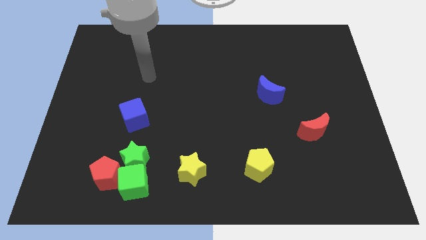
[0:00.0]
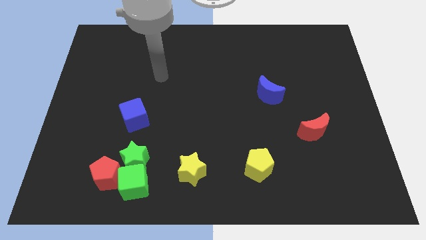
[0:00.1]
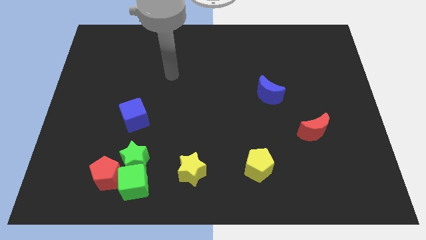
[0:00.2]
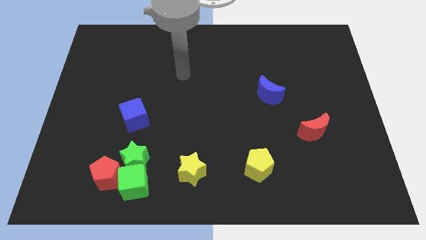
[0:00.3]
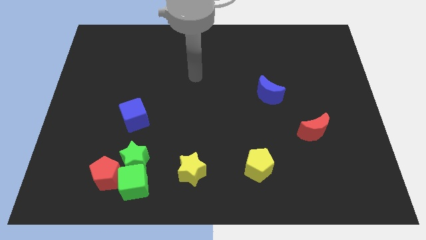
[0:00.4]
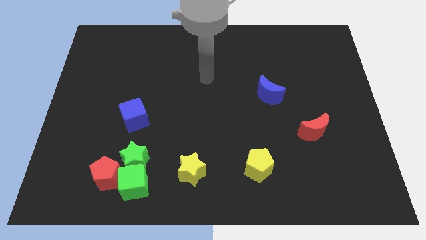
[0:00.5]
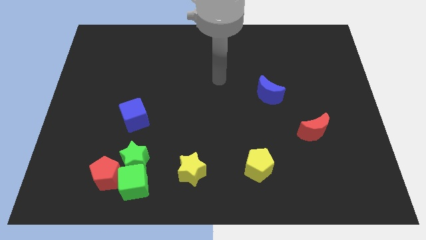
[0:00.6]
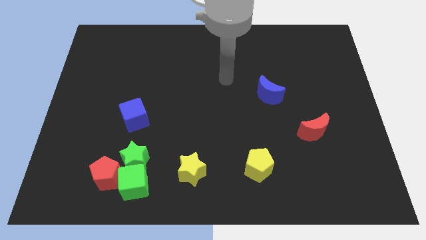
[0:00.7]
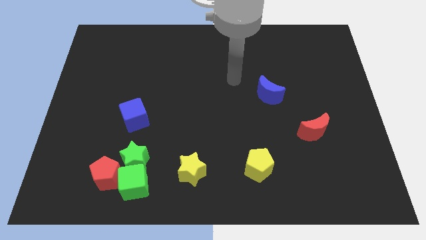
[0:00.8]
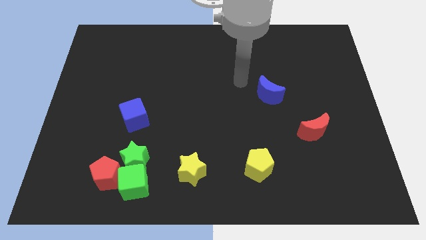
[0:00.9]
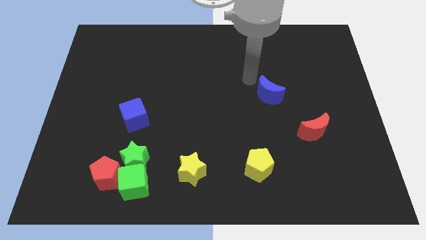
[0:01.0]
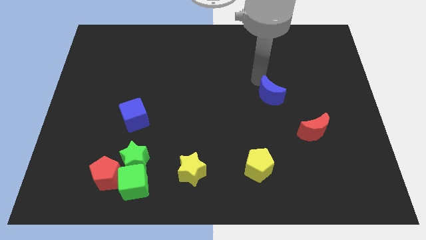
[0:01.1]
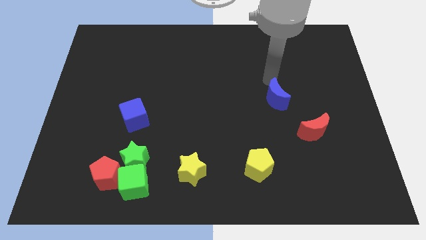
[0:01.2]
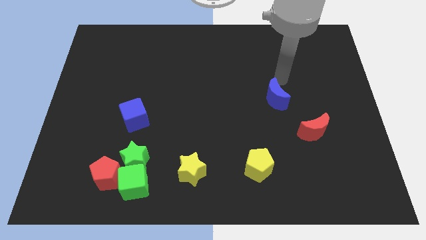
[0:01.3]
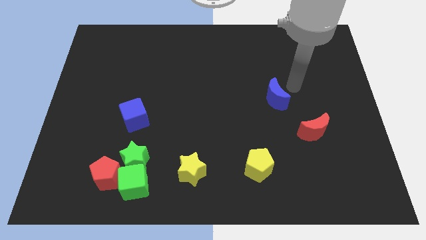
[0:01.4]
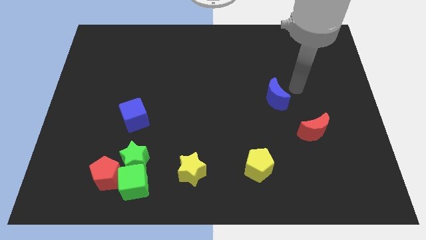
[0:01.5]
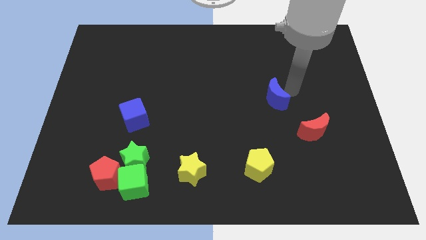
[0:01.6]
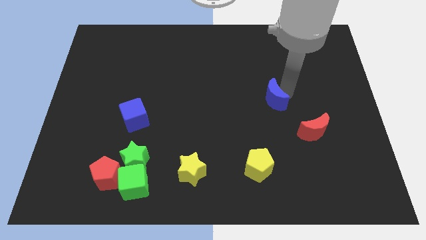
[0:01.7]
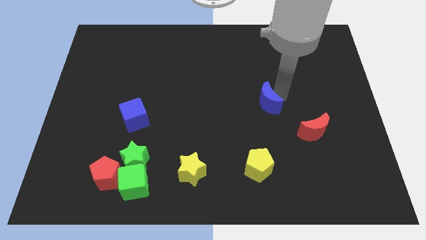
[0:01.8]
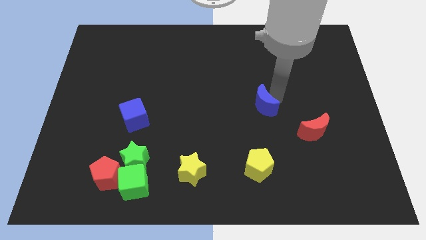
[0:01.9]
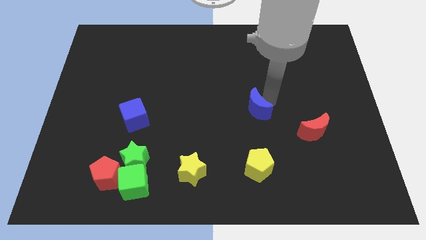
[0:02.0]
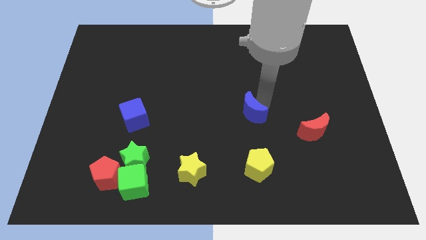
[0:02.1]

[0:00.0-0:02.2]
move the blue moon somewhat downwards and then to the left

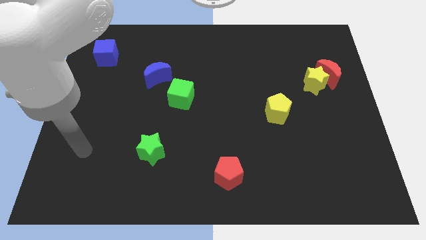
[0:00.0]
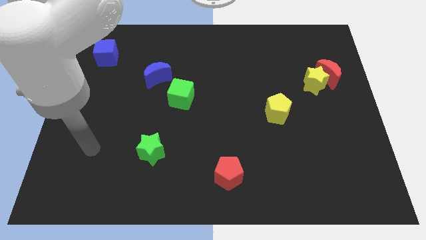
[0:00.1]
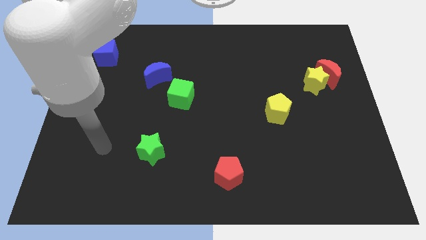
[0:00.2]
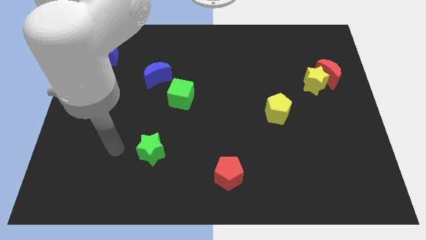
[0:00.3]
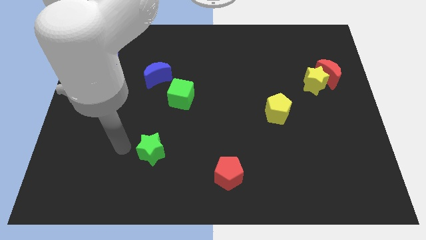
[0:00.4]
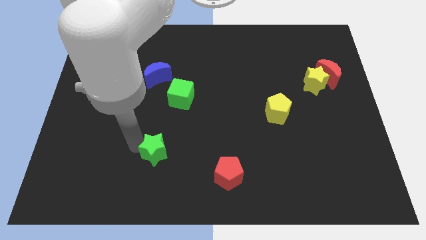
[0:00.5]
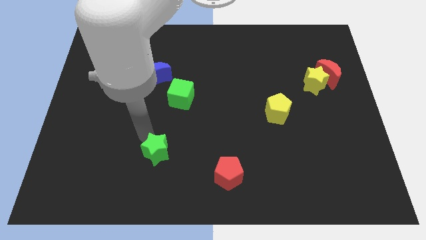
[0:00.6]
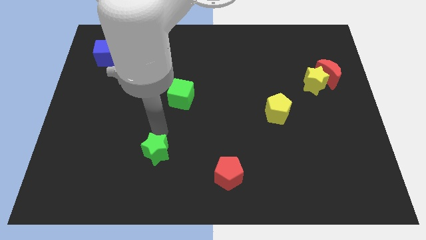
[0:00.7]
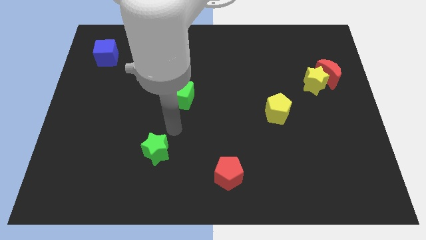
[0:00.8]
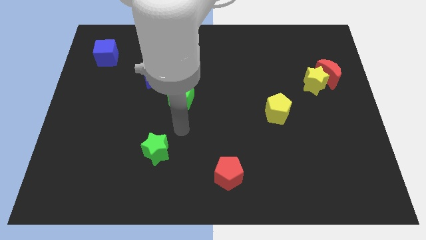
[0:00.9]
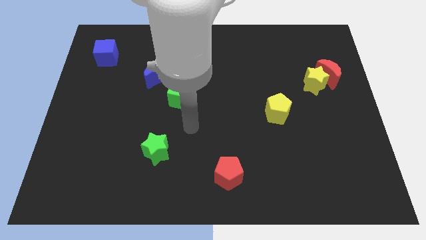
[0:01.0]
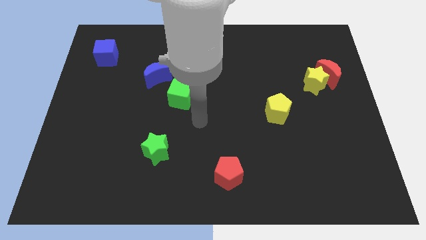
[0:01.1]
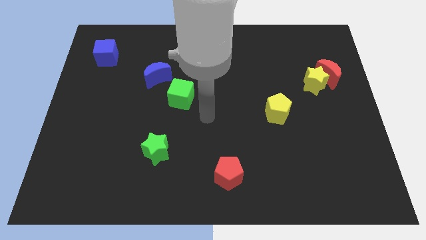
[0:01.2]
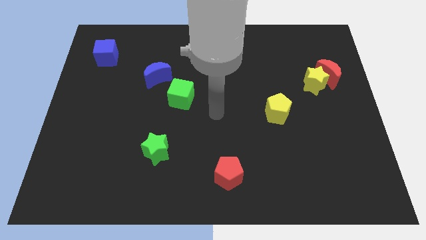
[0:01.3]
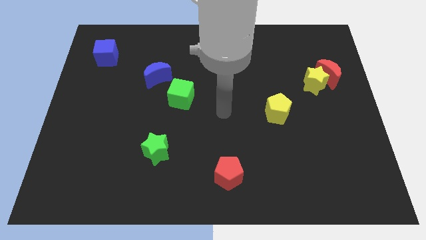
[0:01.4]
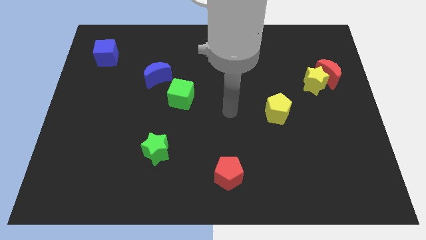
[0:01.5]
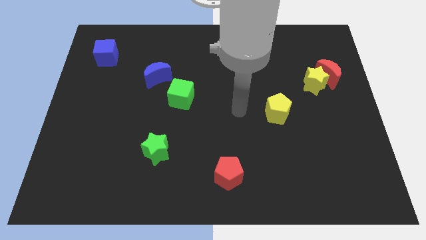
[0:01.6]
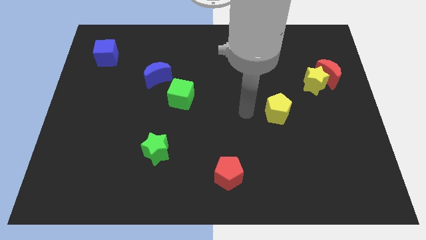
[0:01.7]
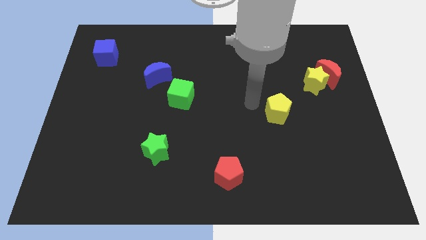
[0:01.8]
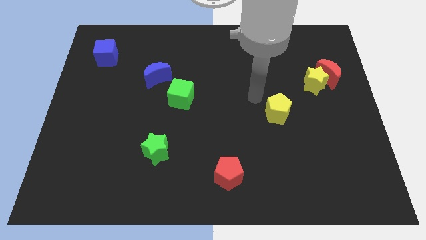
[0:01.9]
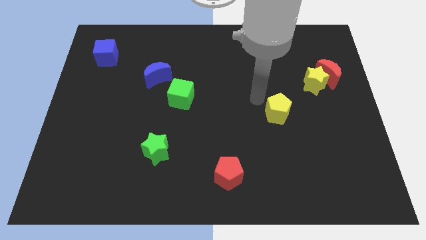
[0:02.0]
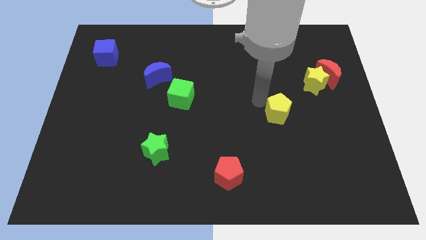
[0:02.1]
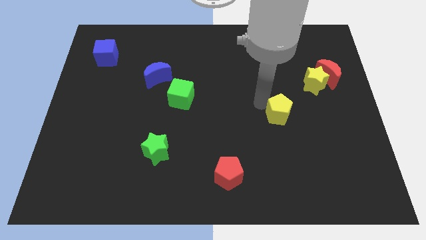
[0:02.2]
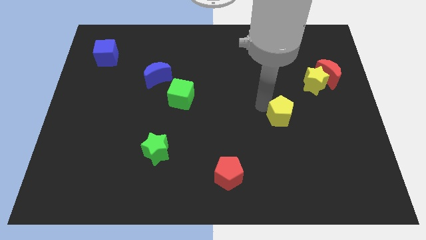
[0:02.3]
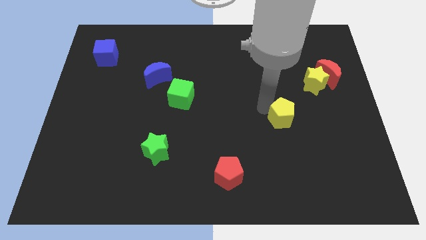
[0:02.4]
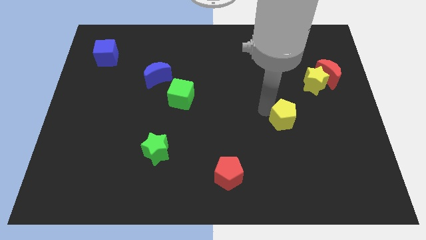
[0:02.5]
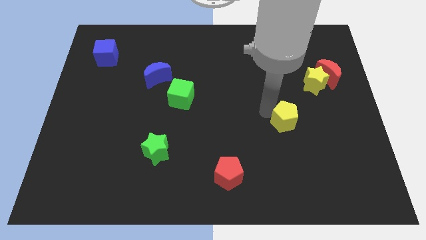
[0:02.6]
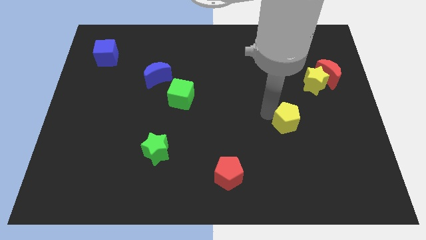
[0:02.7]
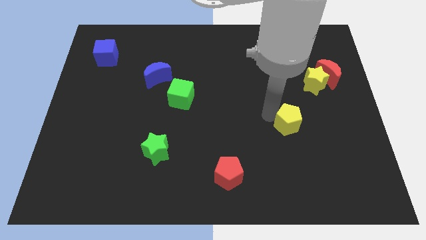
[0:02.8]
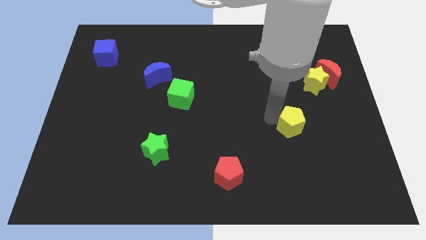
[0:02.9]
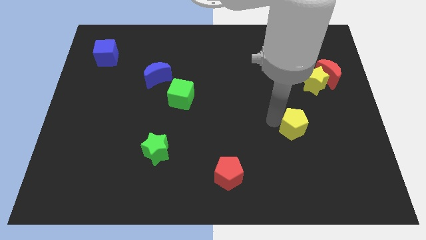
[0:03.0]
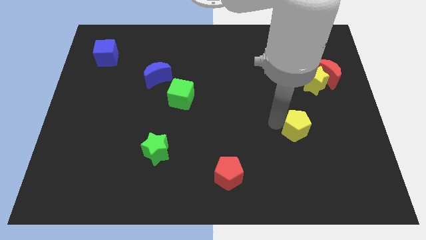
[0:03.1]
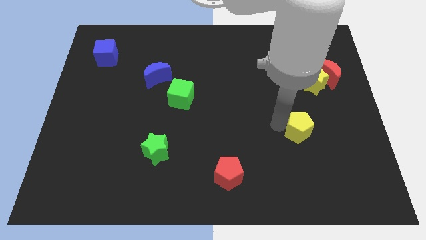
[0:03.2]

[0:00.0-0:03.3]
slightly slide the yellow pentagon down and right diagonally

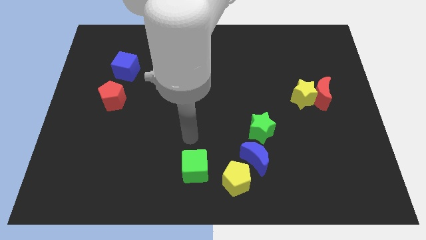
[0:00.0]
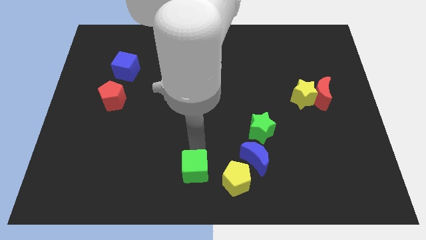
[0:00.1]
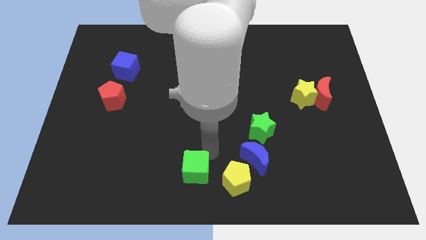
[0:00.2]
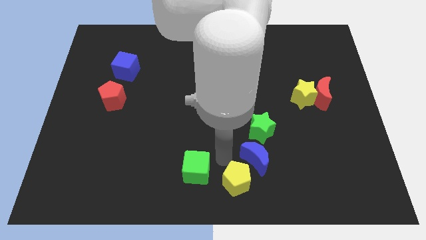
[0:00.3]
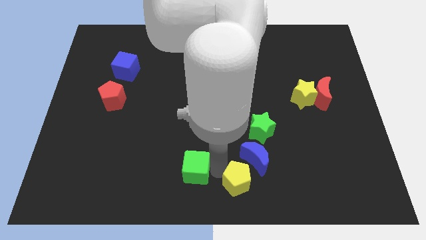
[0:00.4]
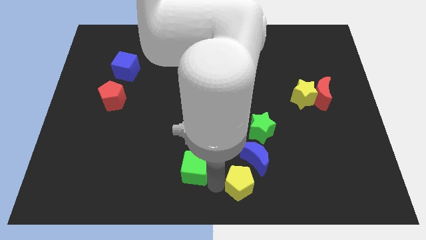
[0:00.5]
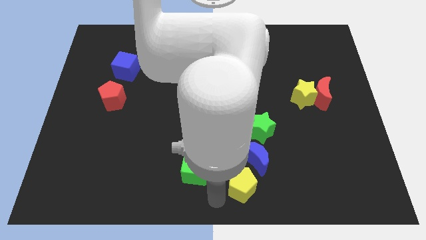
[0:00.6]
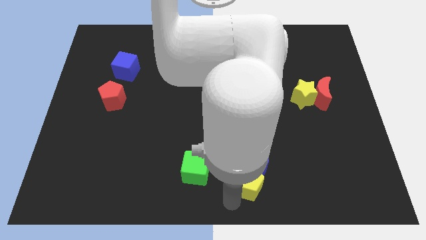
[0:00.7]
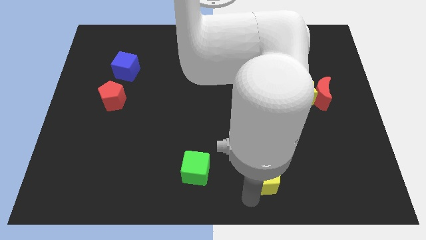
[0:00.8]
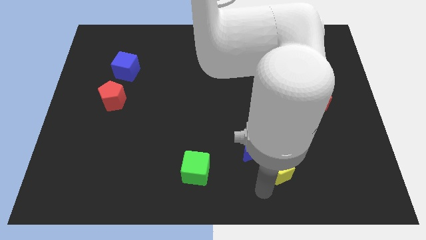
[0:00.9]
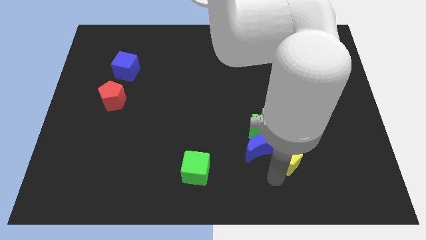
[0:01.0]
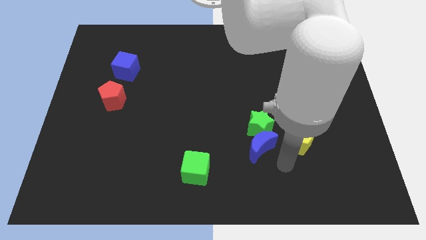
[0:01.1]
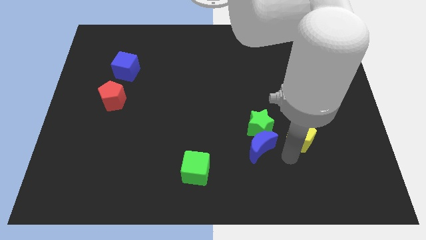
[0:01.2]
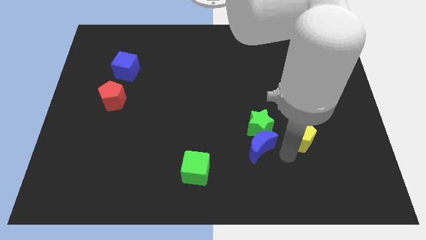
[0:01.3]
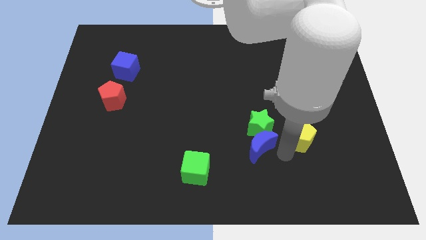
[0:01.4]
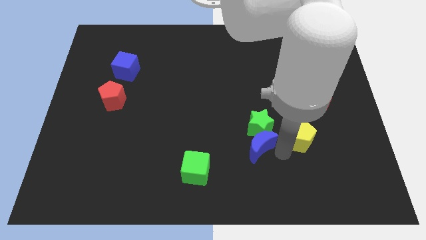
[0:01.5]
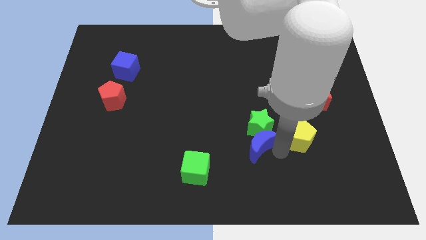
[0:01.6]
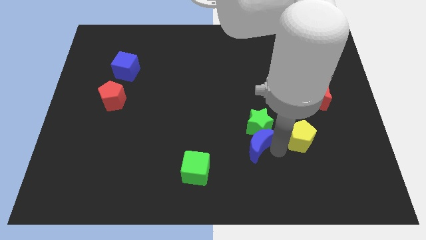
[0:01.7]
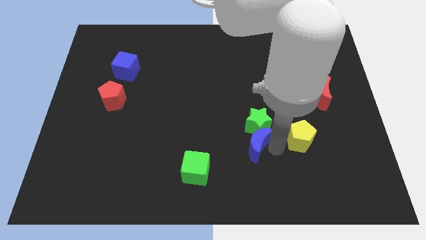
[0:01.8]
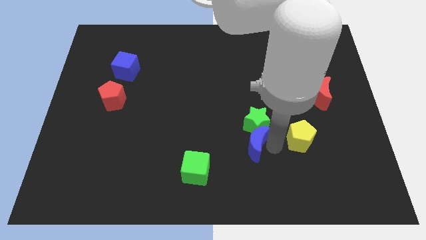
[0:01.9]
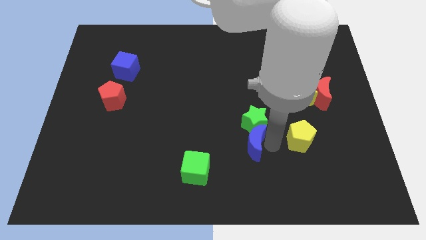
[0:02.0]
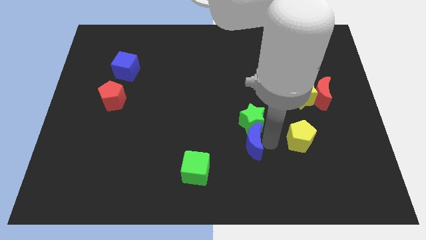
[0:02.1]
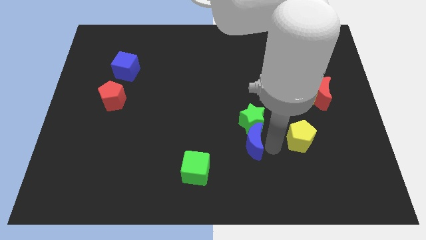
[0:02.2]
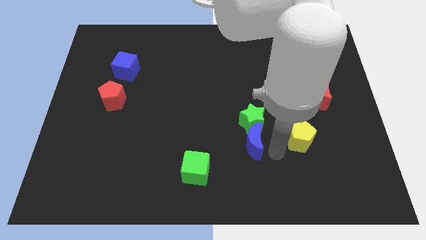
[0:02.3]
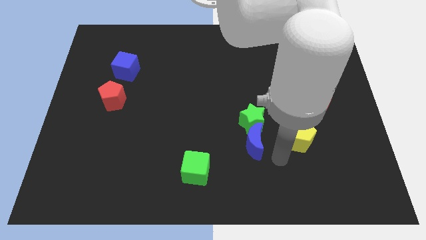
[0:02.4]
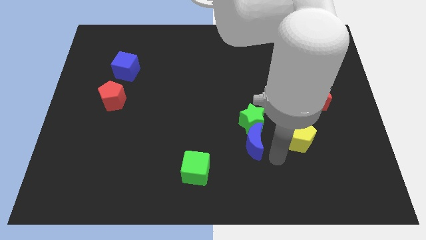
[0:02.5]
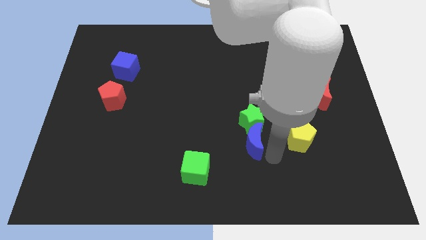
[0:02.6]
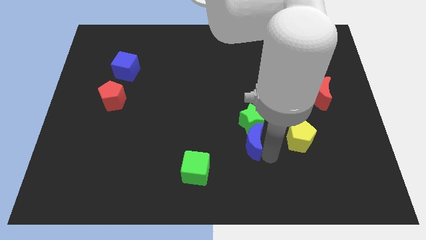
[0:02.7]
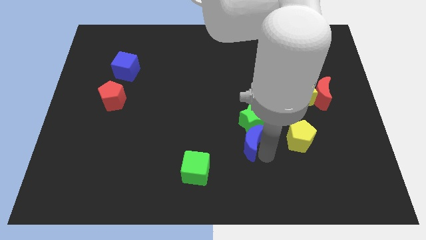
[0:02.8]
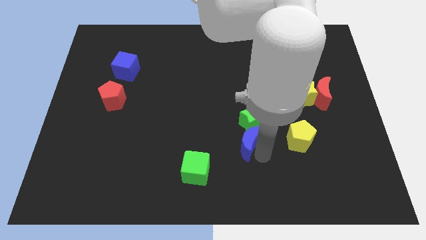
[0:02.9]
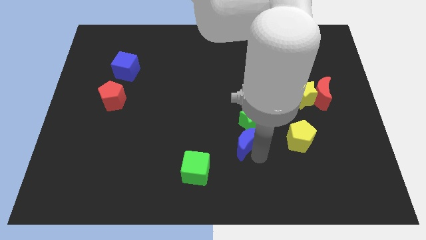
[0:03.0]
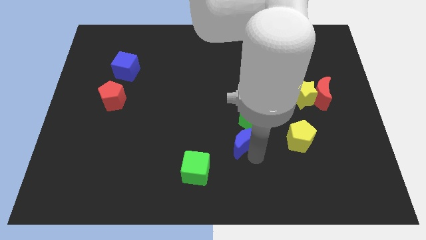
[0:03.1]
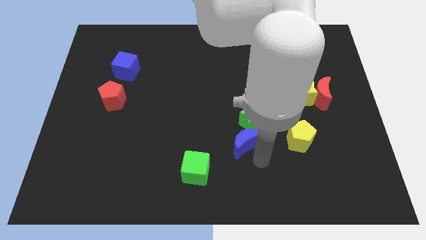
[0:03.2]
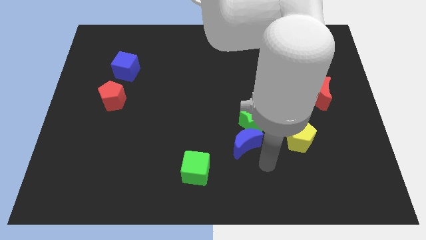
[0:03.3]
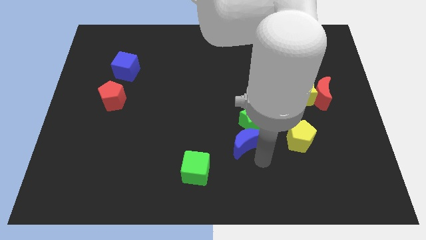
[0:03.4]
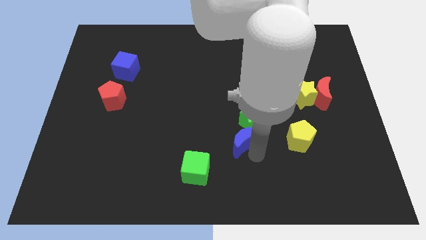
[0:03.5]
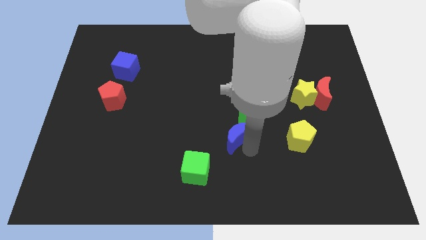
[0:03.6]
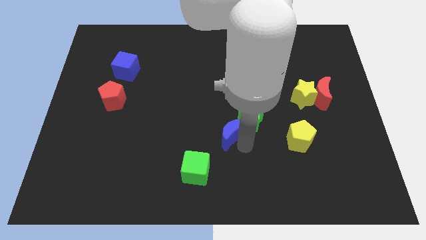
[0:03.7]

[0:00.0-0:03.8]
slightly move the blue moon diagonally upwards and to the left
